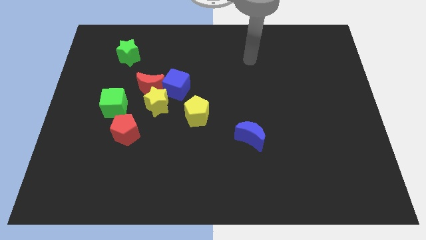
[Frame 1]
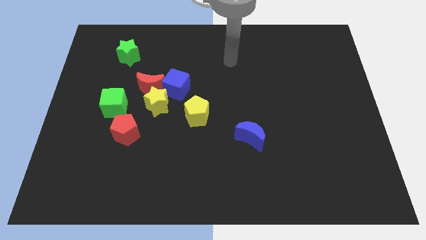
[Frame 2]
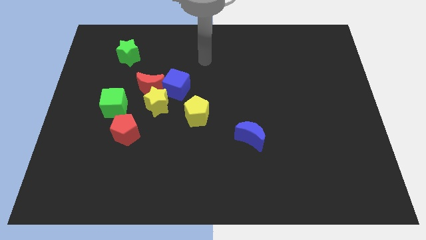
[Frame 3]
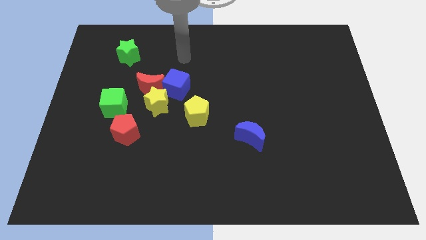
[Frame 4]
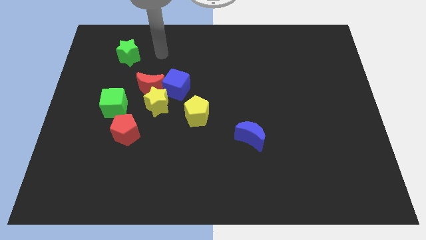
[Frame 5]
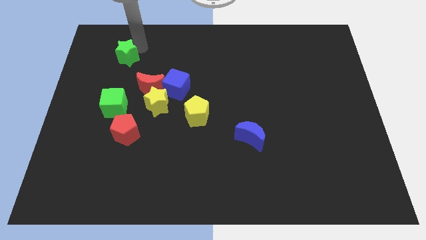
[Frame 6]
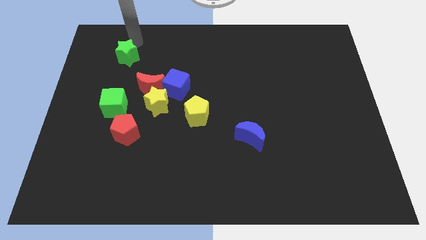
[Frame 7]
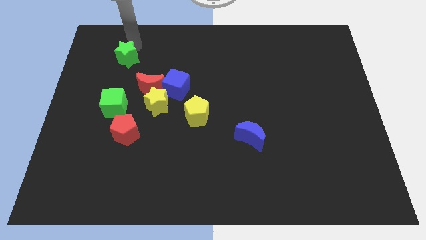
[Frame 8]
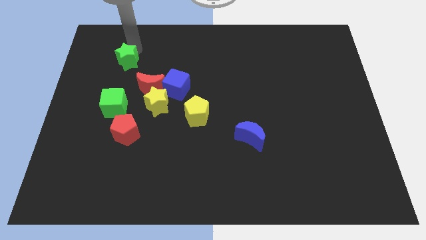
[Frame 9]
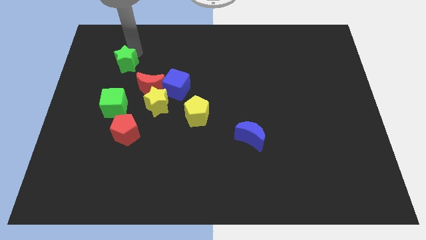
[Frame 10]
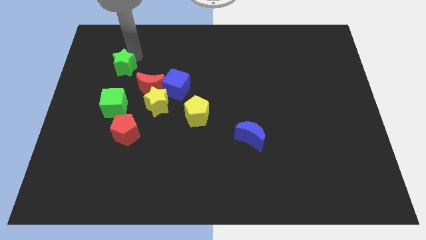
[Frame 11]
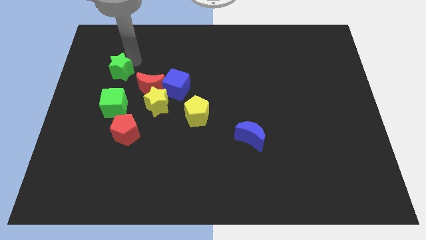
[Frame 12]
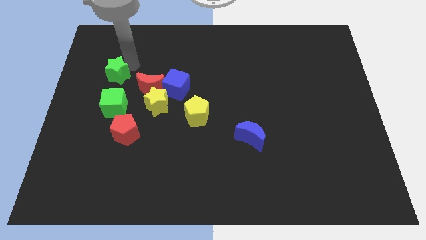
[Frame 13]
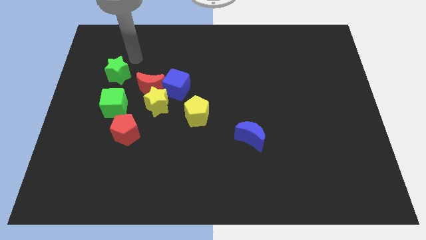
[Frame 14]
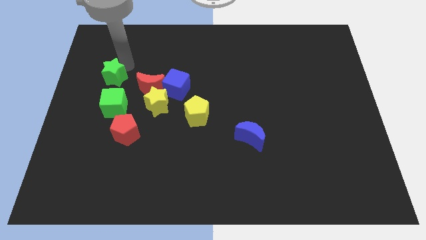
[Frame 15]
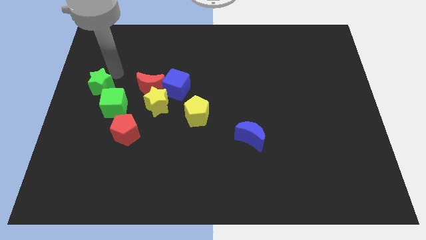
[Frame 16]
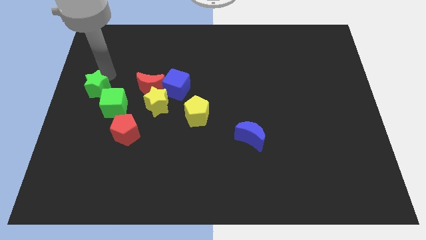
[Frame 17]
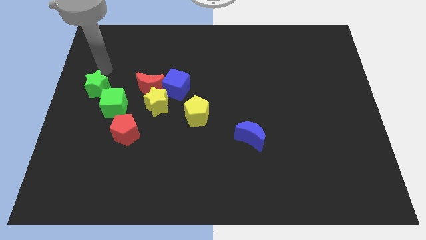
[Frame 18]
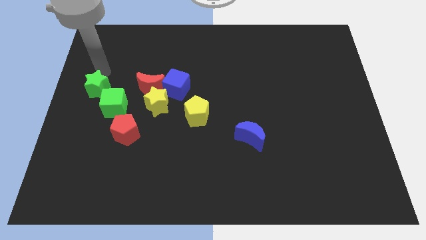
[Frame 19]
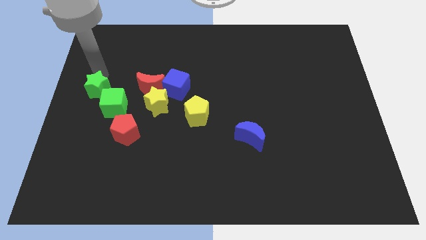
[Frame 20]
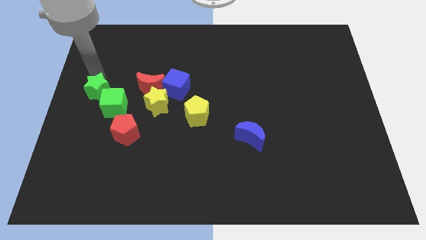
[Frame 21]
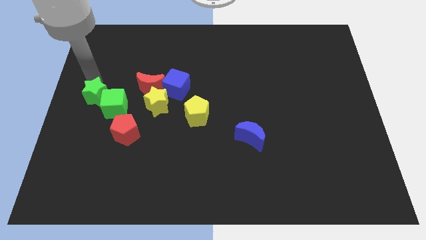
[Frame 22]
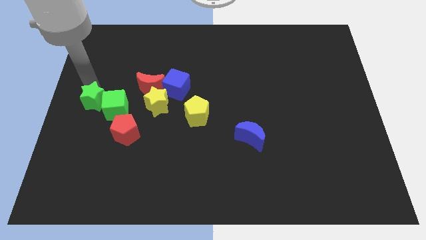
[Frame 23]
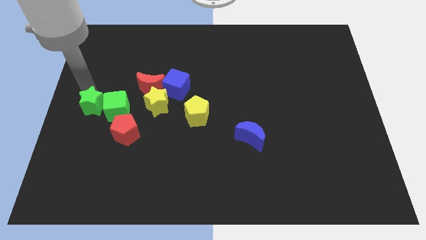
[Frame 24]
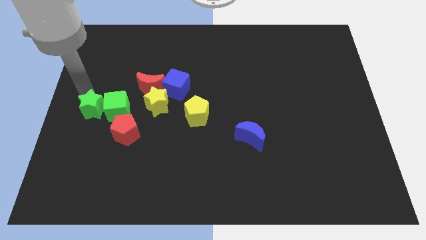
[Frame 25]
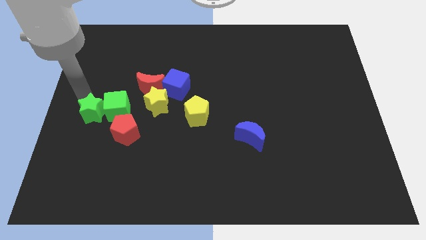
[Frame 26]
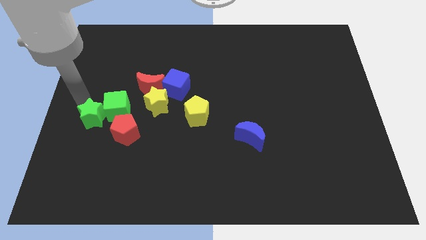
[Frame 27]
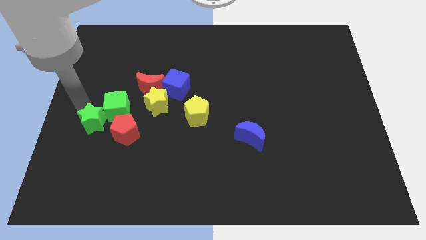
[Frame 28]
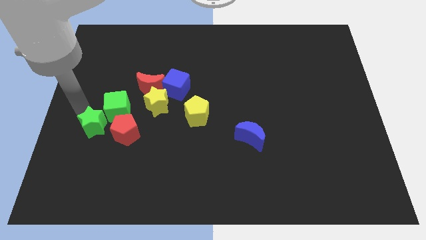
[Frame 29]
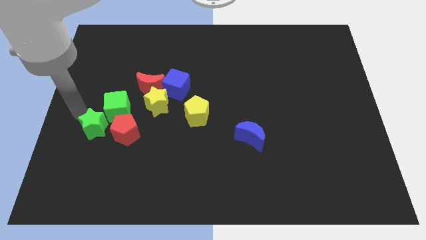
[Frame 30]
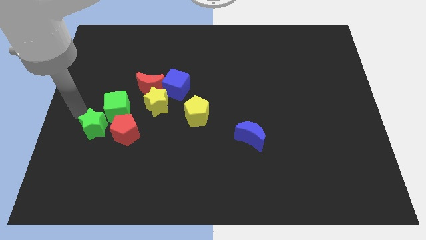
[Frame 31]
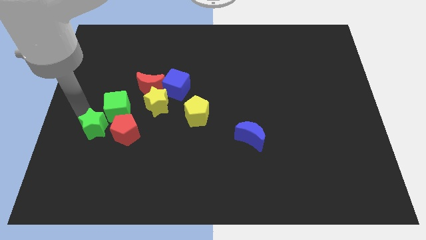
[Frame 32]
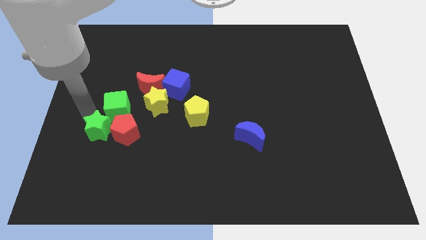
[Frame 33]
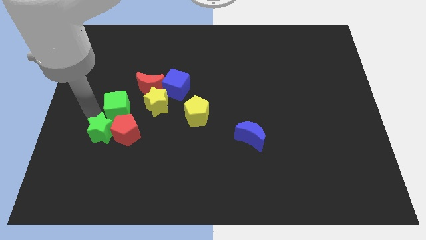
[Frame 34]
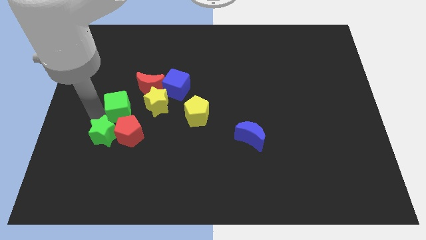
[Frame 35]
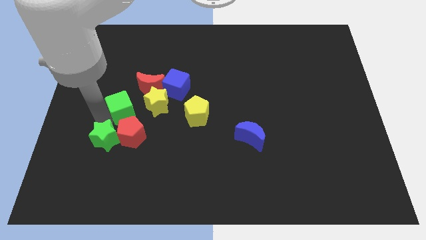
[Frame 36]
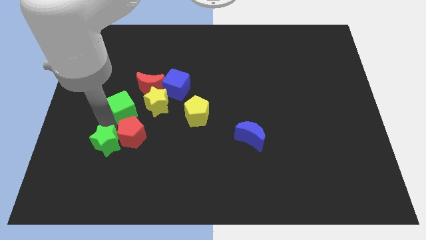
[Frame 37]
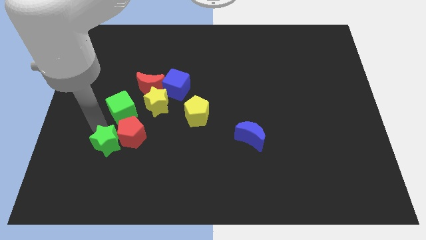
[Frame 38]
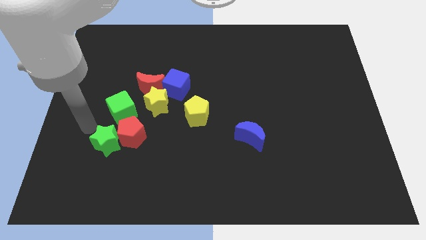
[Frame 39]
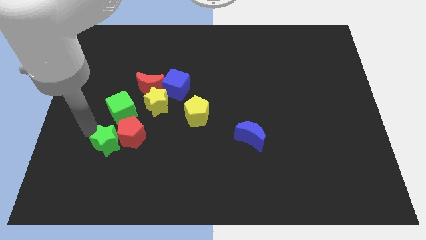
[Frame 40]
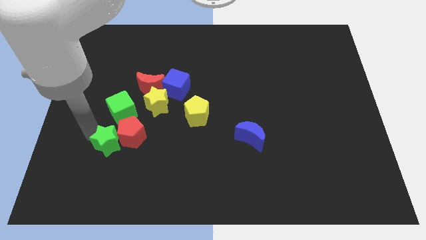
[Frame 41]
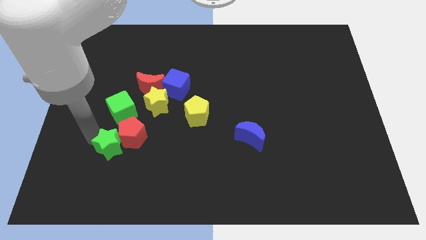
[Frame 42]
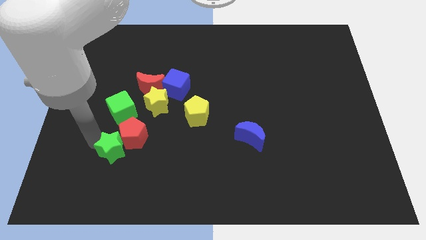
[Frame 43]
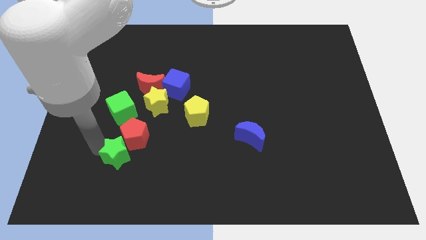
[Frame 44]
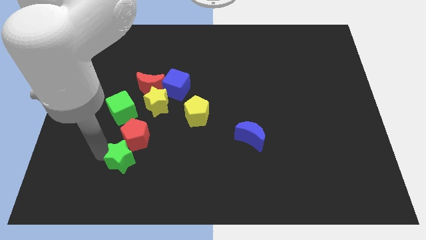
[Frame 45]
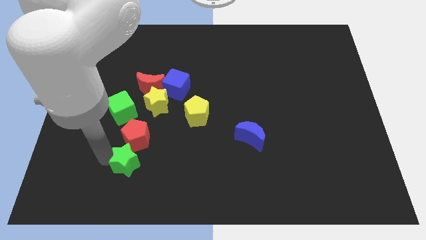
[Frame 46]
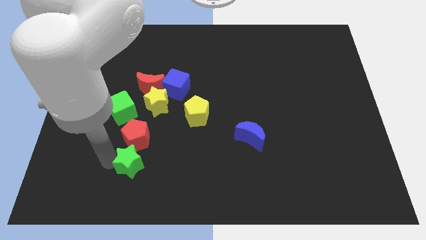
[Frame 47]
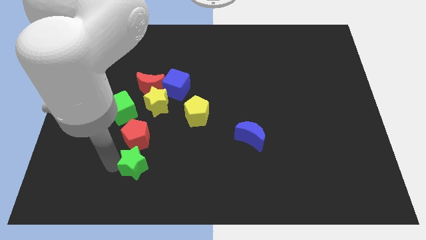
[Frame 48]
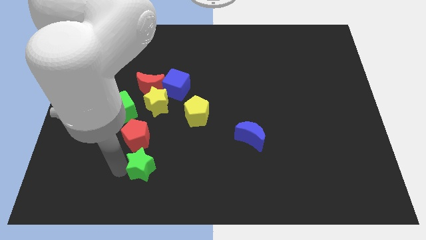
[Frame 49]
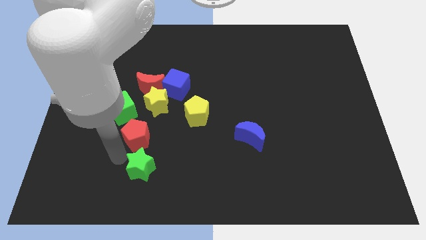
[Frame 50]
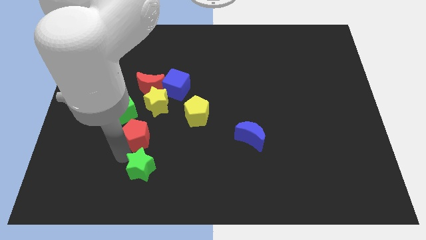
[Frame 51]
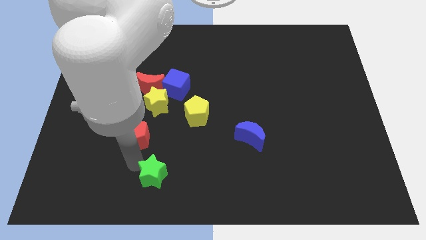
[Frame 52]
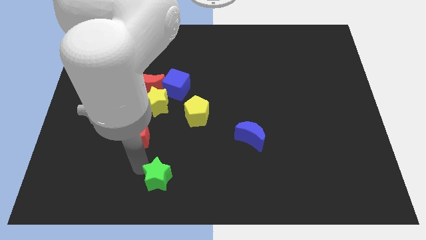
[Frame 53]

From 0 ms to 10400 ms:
put the green star to the bottom side

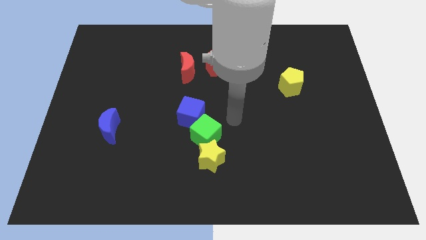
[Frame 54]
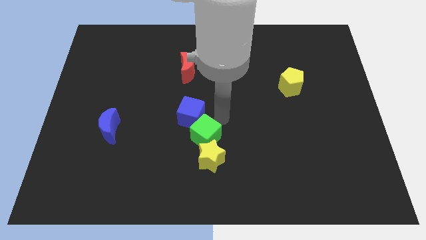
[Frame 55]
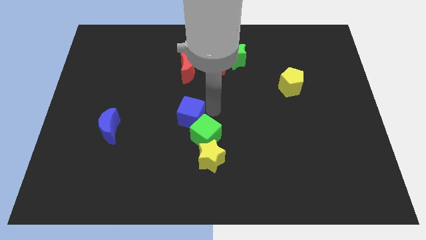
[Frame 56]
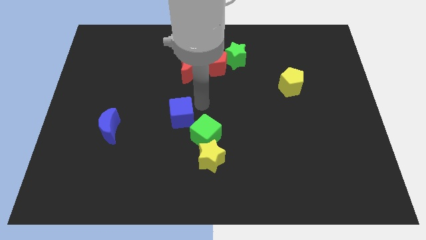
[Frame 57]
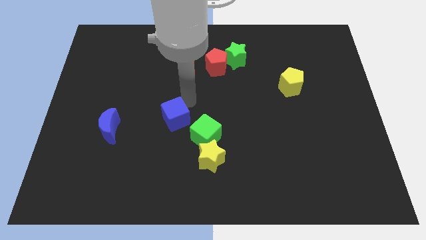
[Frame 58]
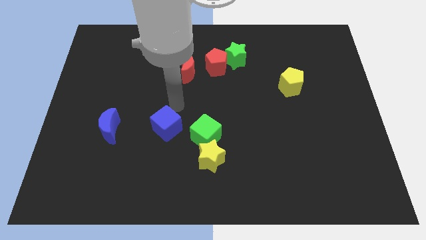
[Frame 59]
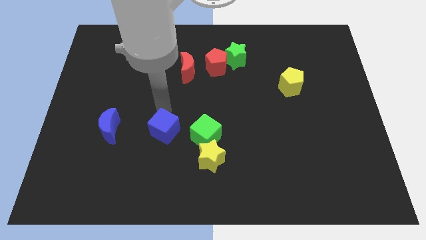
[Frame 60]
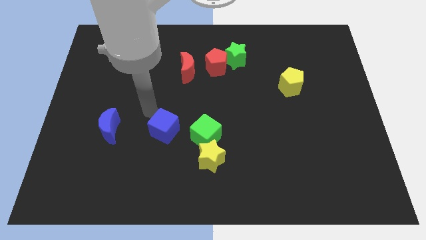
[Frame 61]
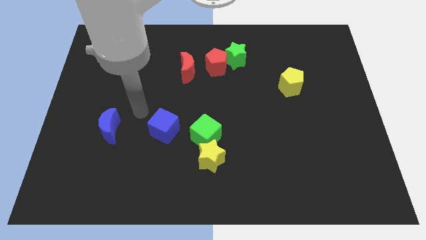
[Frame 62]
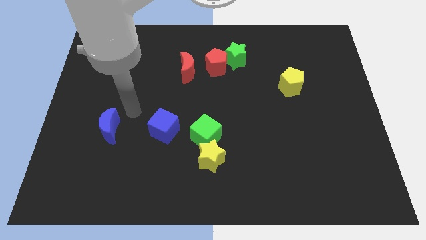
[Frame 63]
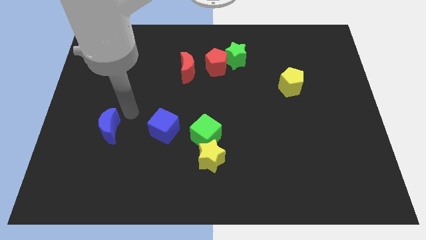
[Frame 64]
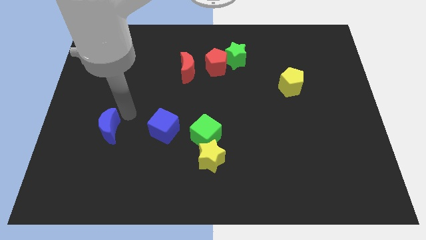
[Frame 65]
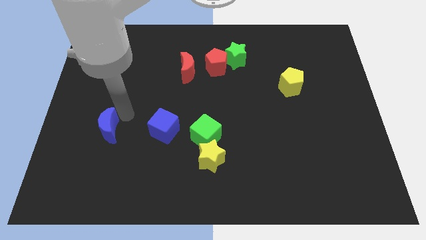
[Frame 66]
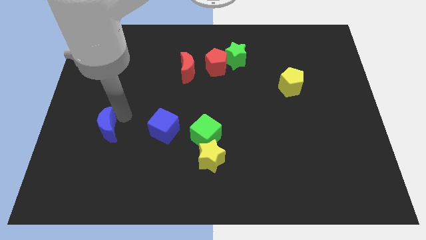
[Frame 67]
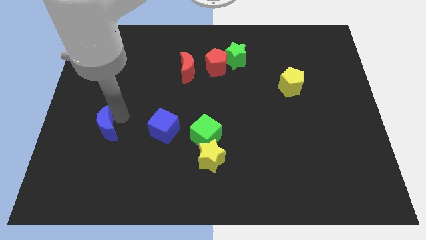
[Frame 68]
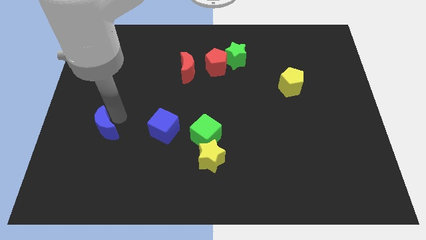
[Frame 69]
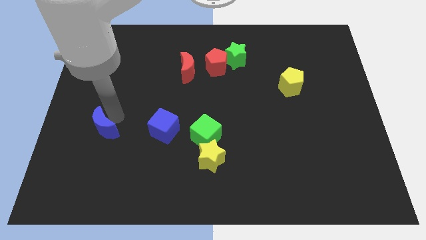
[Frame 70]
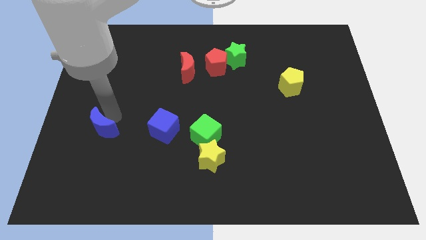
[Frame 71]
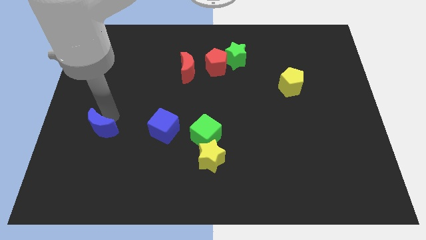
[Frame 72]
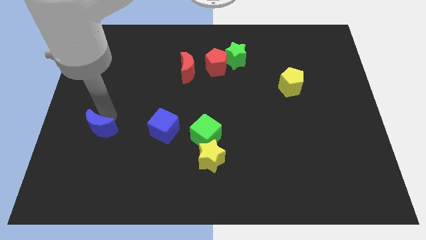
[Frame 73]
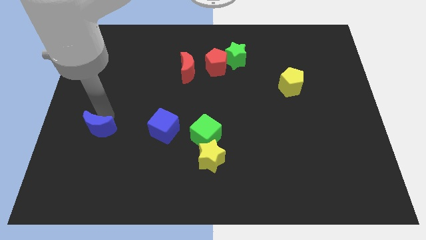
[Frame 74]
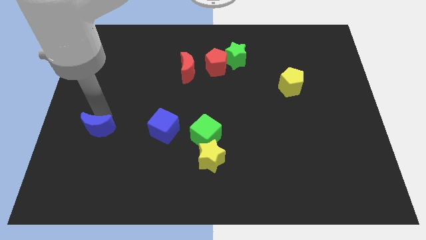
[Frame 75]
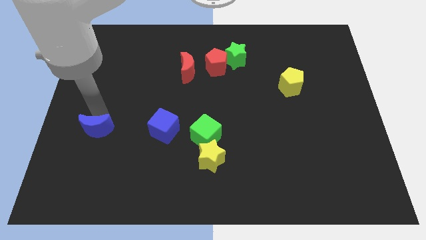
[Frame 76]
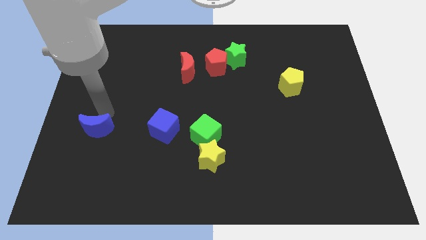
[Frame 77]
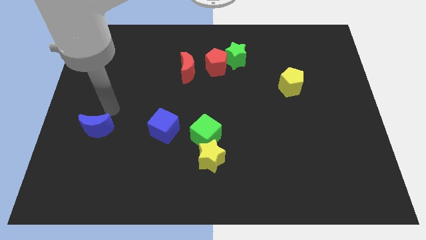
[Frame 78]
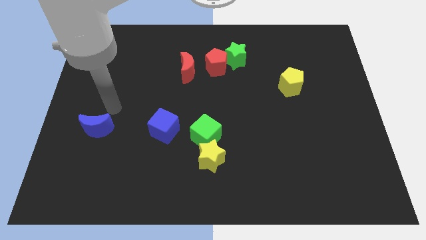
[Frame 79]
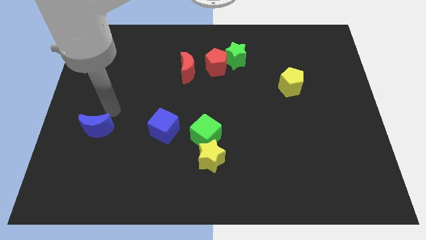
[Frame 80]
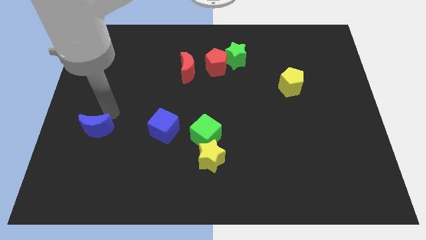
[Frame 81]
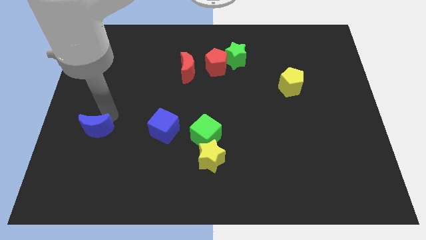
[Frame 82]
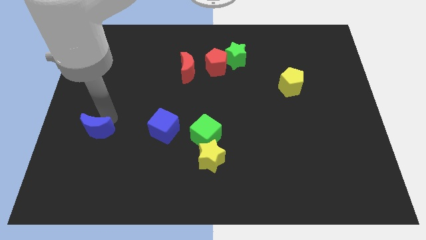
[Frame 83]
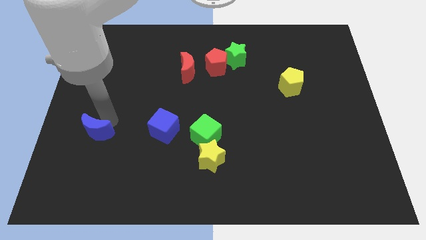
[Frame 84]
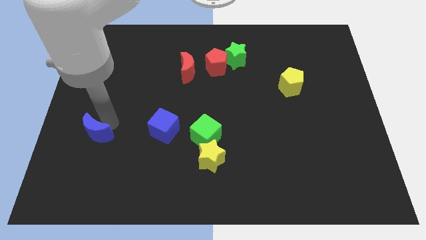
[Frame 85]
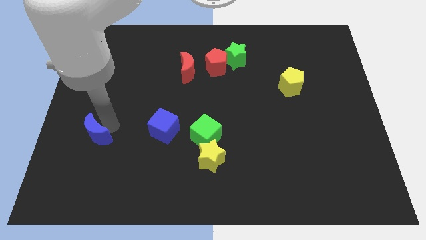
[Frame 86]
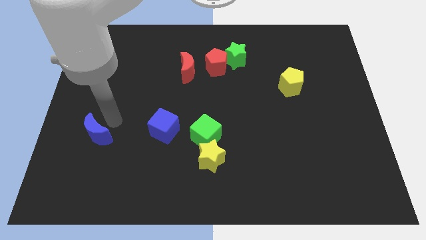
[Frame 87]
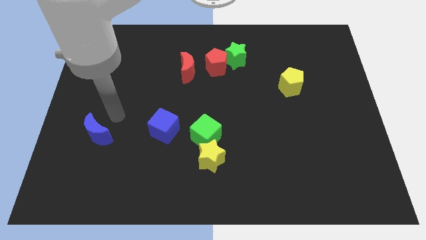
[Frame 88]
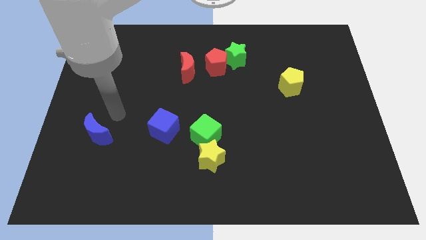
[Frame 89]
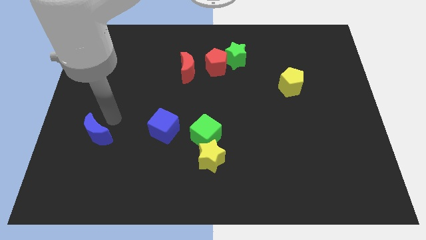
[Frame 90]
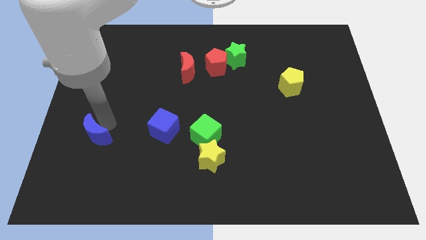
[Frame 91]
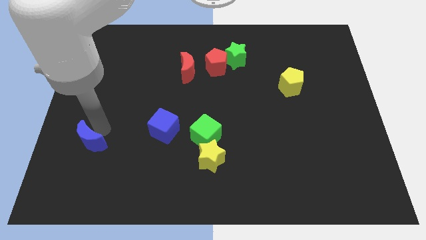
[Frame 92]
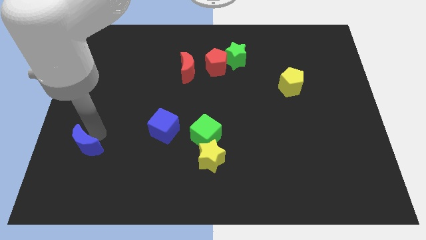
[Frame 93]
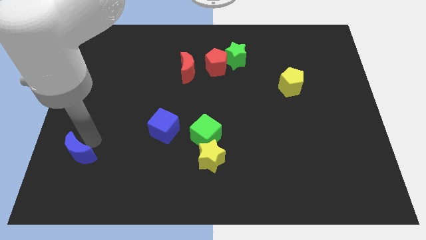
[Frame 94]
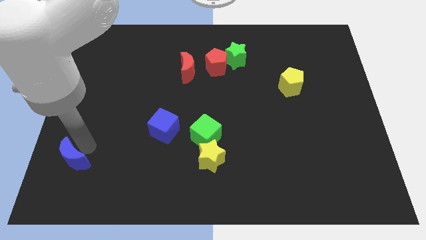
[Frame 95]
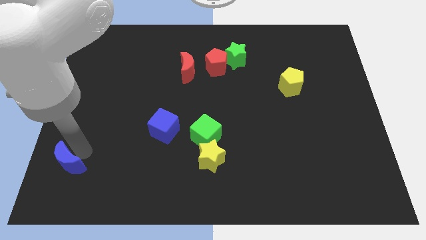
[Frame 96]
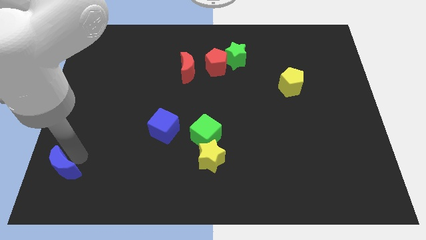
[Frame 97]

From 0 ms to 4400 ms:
move the blue moon to the lower left corner
